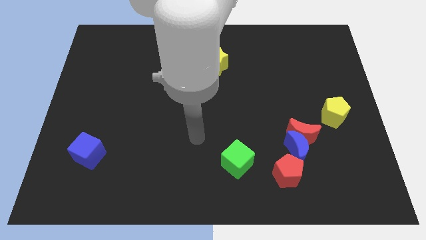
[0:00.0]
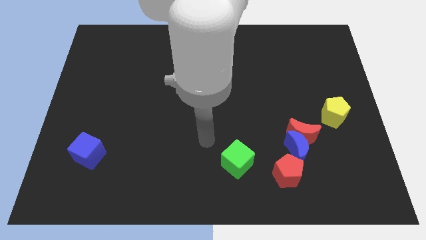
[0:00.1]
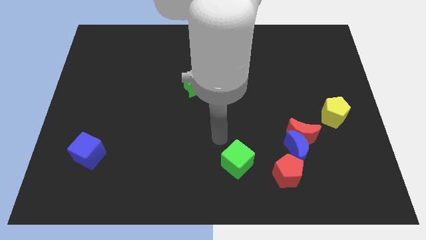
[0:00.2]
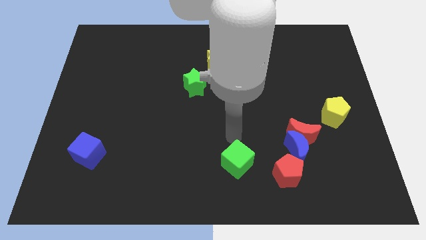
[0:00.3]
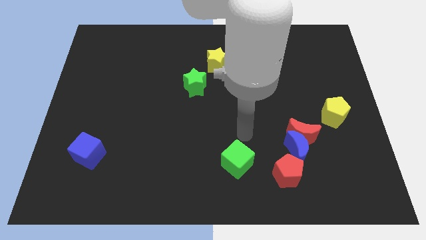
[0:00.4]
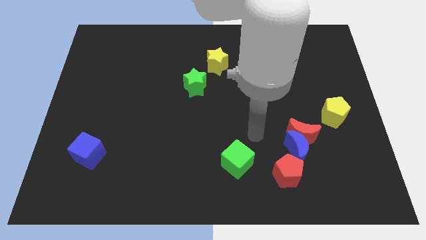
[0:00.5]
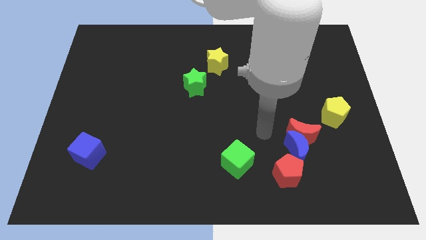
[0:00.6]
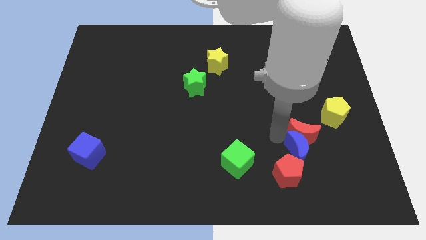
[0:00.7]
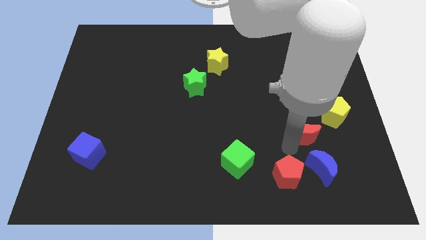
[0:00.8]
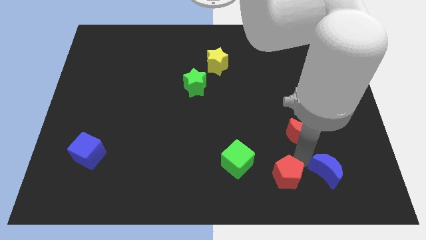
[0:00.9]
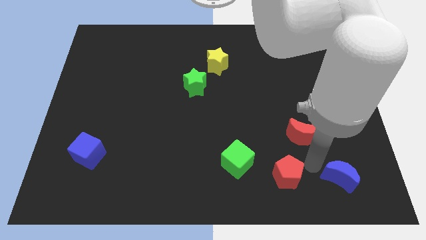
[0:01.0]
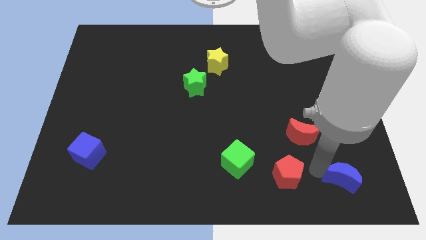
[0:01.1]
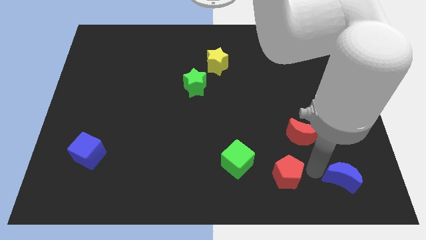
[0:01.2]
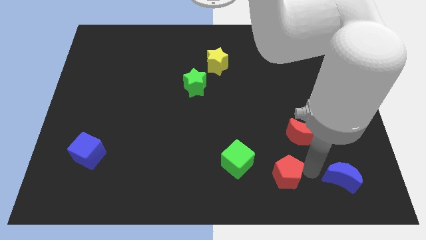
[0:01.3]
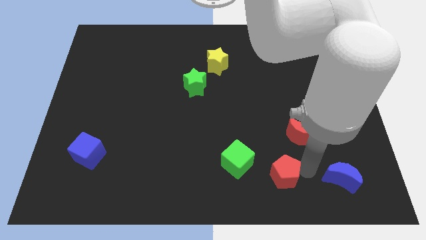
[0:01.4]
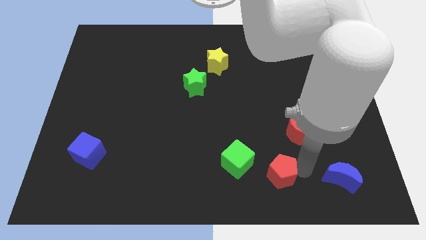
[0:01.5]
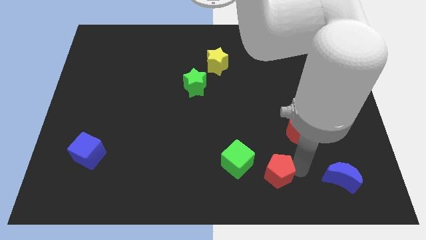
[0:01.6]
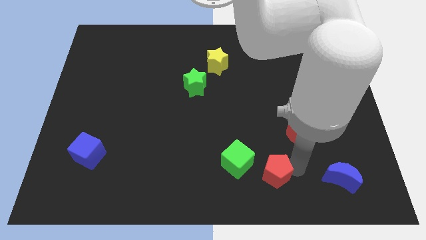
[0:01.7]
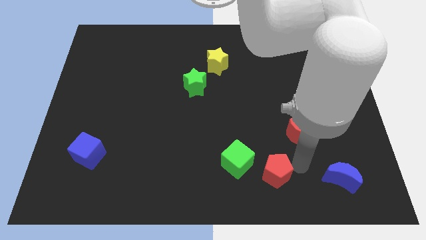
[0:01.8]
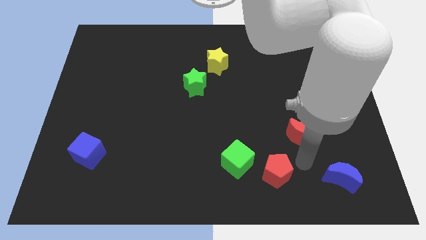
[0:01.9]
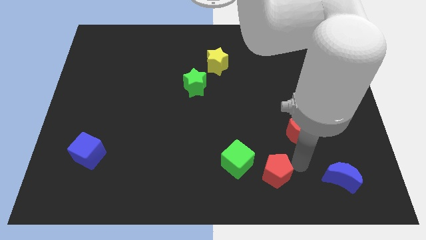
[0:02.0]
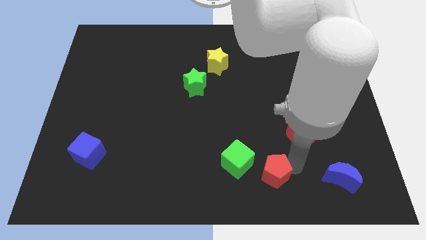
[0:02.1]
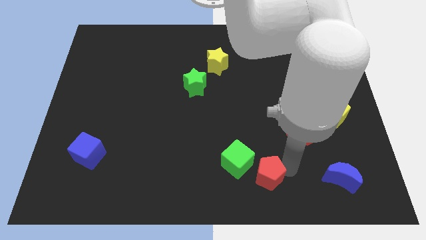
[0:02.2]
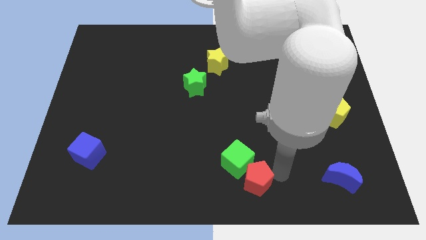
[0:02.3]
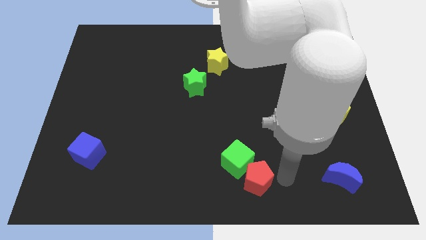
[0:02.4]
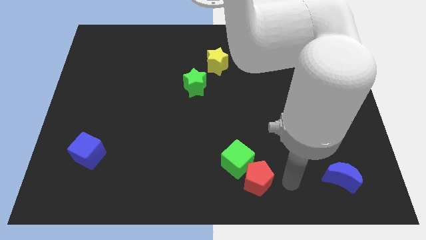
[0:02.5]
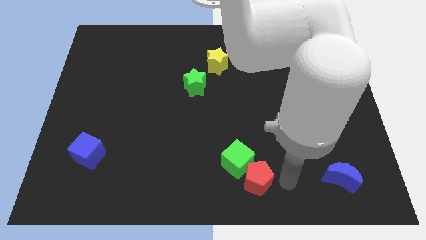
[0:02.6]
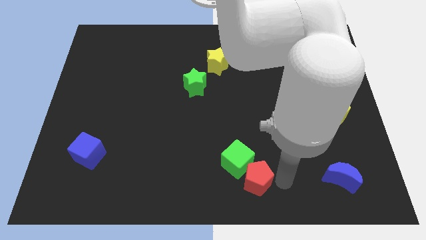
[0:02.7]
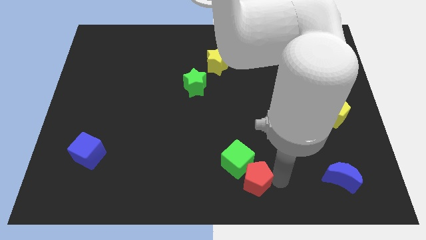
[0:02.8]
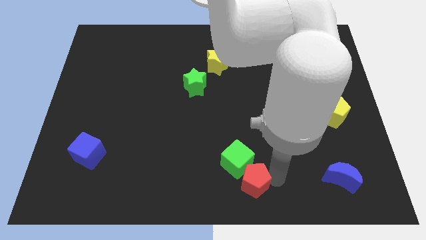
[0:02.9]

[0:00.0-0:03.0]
slightly slide the red pentagon to the left

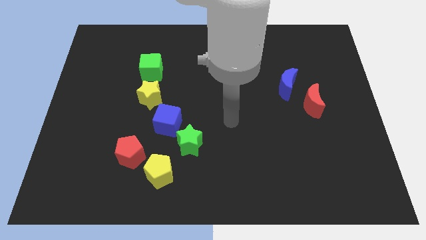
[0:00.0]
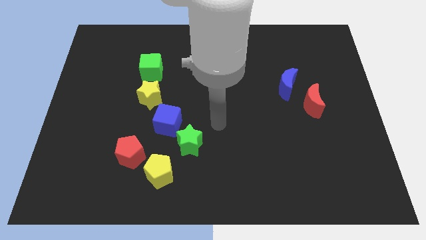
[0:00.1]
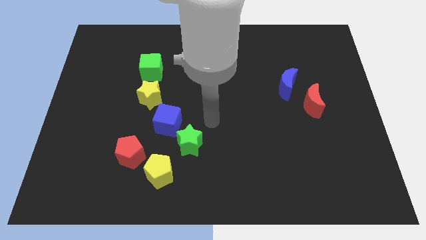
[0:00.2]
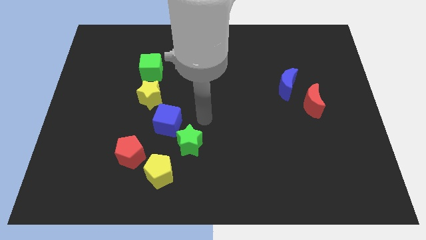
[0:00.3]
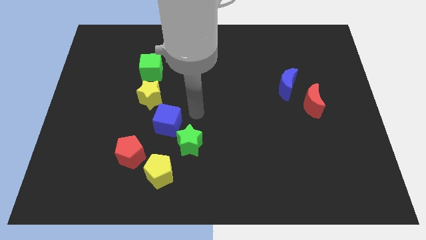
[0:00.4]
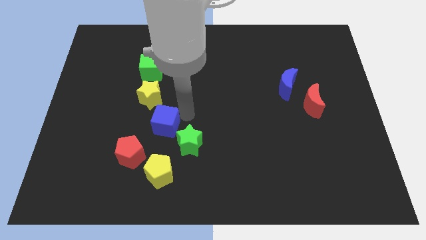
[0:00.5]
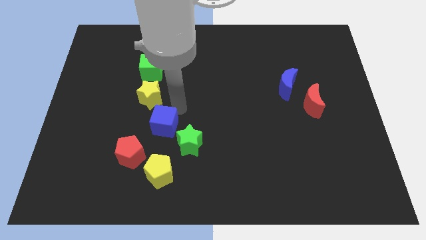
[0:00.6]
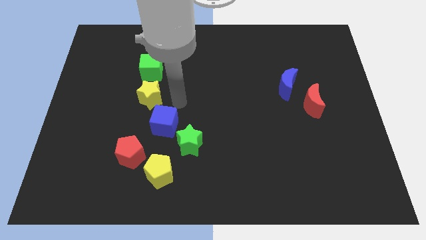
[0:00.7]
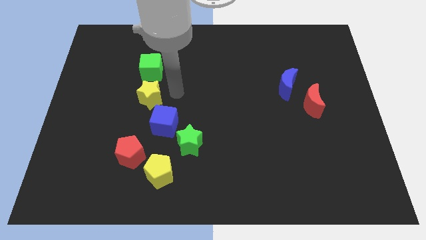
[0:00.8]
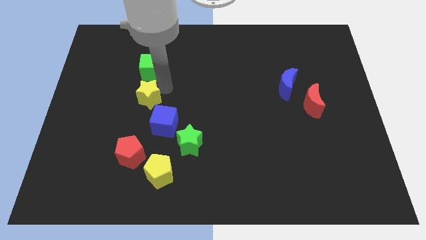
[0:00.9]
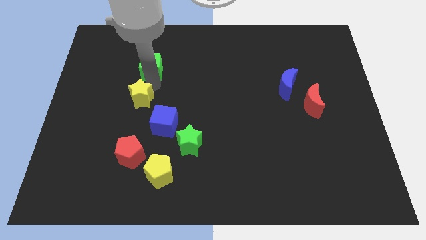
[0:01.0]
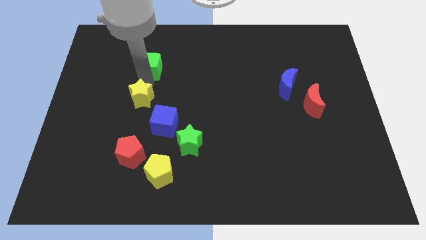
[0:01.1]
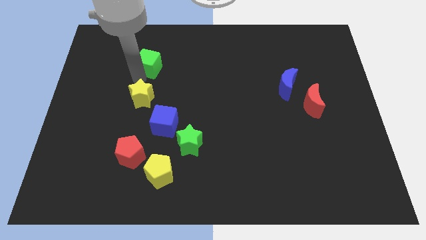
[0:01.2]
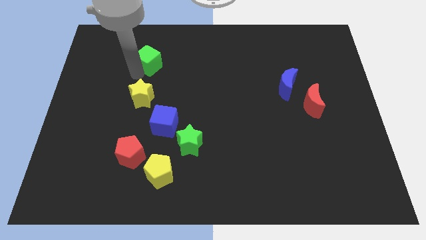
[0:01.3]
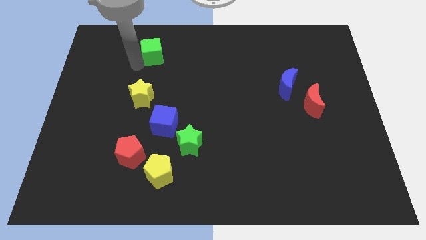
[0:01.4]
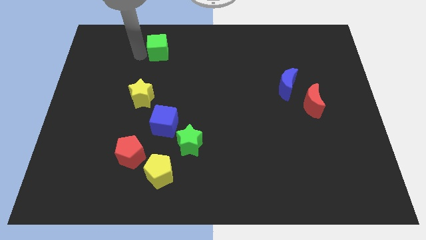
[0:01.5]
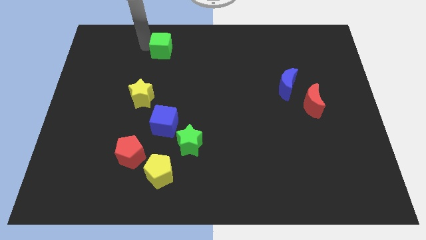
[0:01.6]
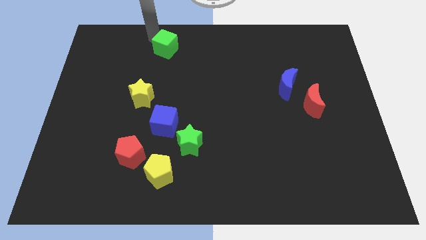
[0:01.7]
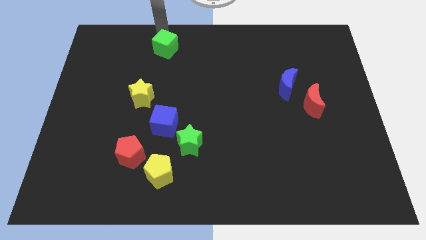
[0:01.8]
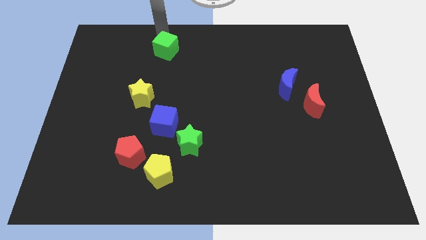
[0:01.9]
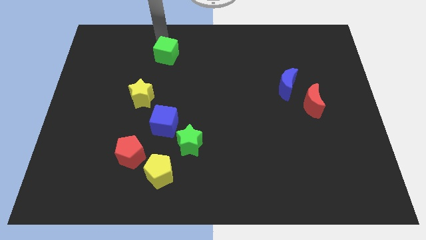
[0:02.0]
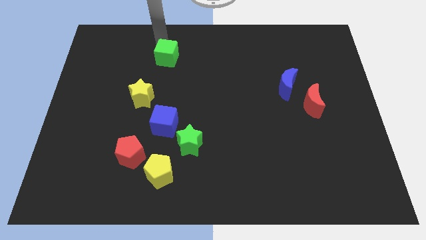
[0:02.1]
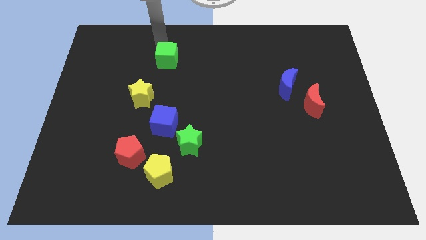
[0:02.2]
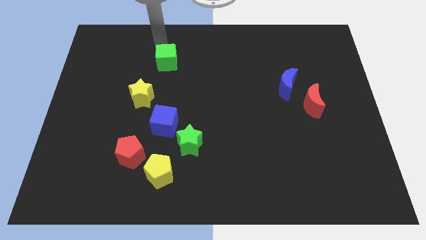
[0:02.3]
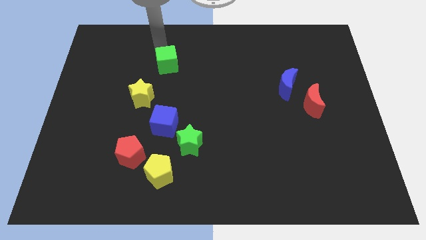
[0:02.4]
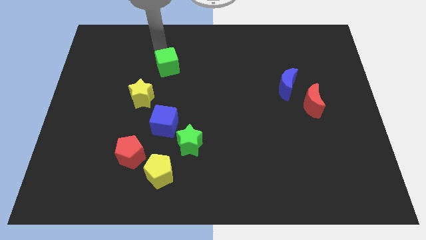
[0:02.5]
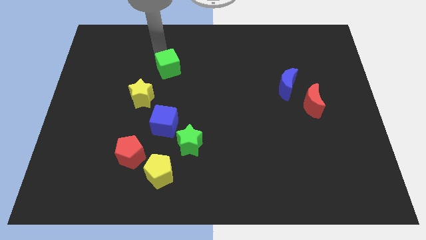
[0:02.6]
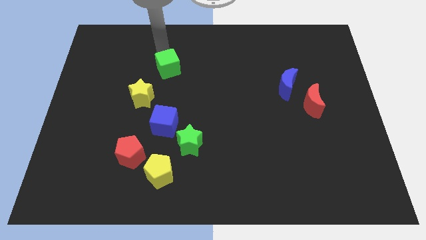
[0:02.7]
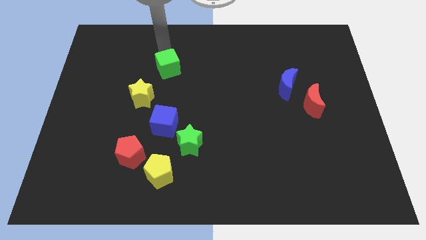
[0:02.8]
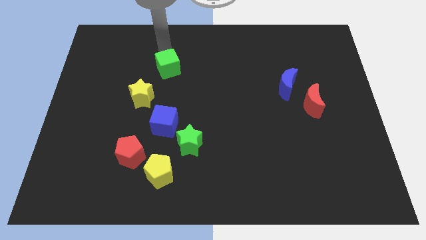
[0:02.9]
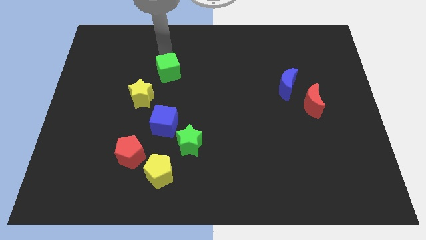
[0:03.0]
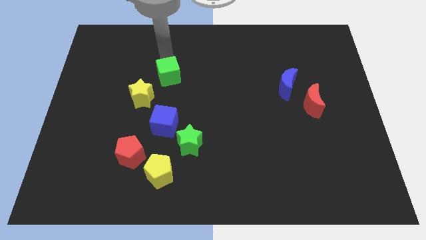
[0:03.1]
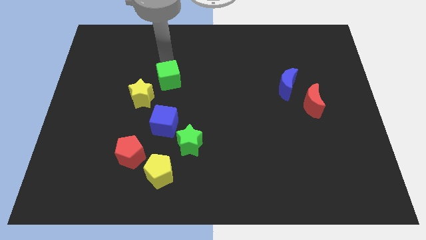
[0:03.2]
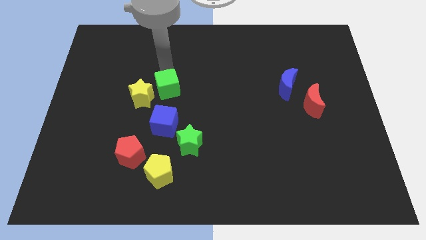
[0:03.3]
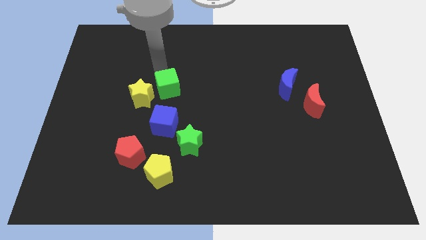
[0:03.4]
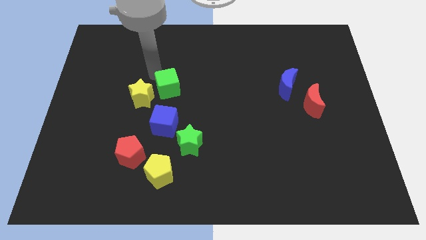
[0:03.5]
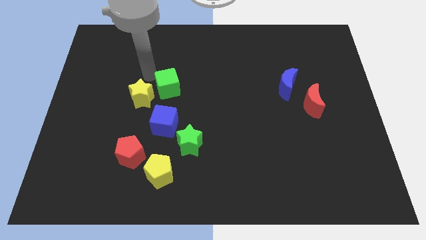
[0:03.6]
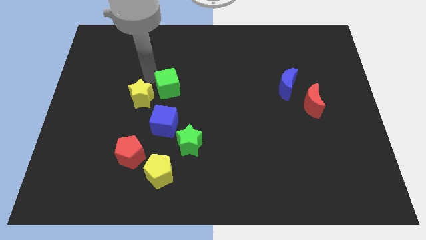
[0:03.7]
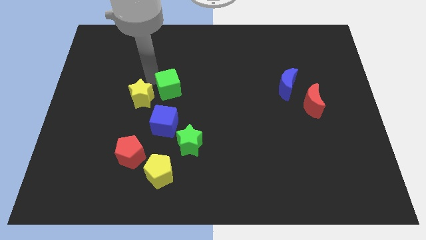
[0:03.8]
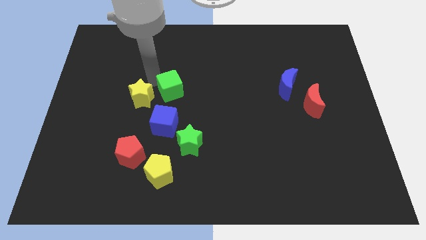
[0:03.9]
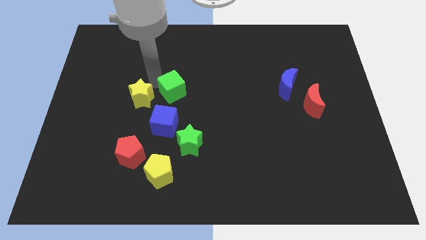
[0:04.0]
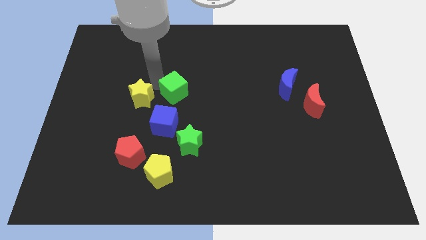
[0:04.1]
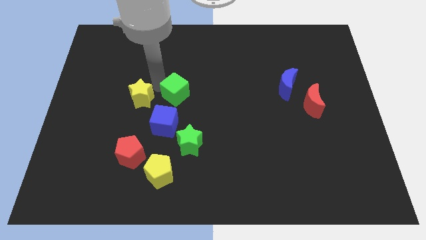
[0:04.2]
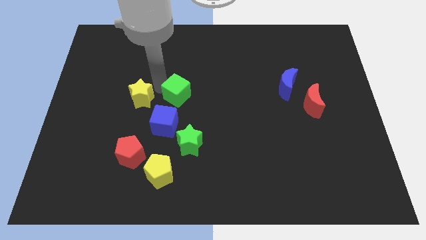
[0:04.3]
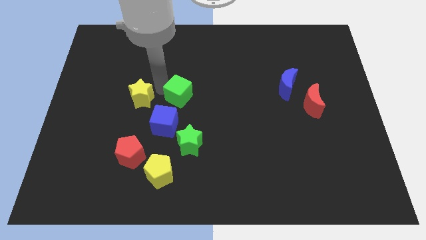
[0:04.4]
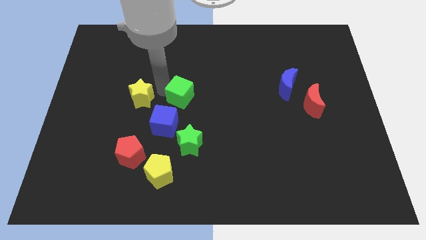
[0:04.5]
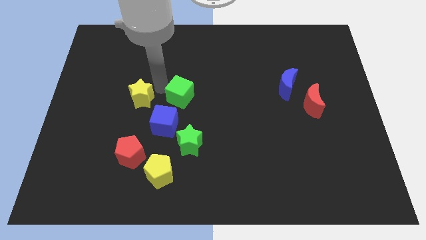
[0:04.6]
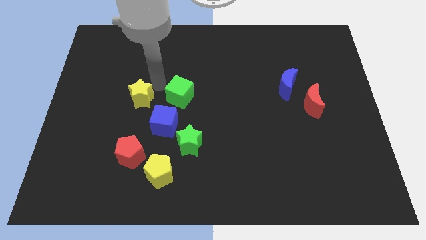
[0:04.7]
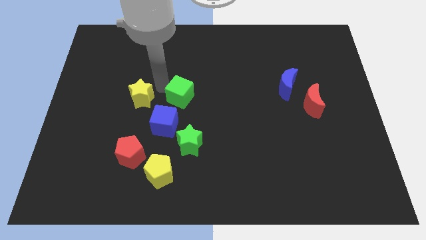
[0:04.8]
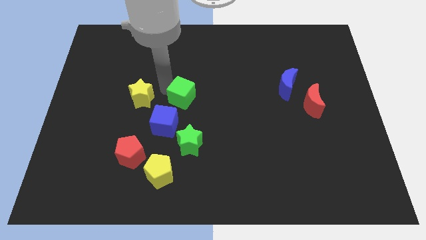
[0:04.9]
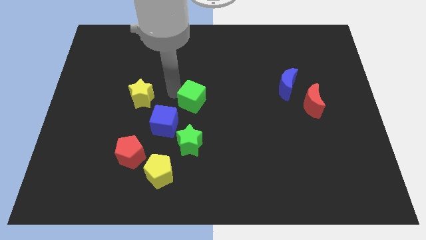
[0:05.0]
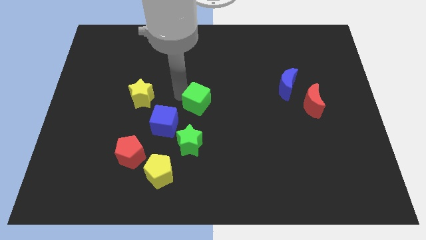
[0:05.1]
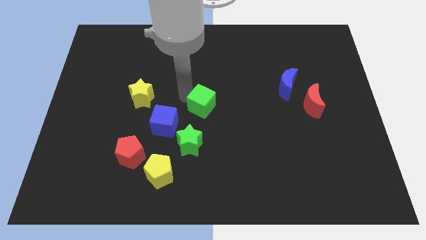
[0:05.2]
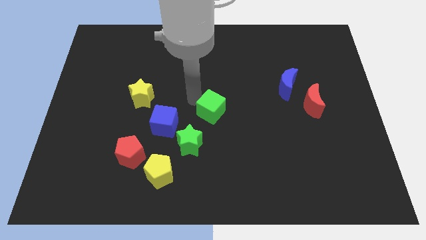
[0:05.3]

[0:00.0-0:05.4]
slide the green cube down and then to the right
